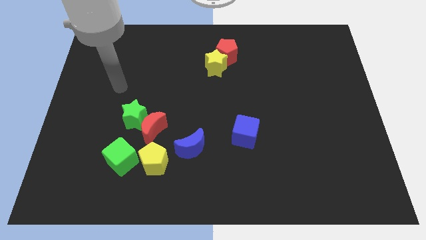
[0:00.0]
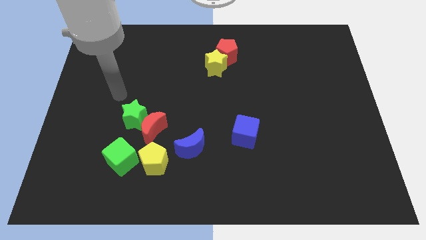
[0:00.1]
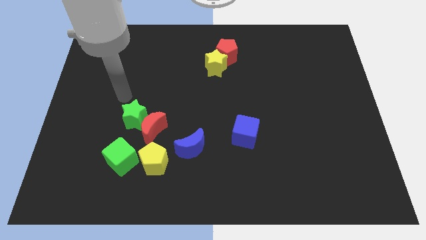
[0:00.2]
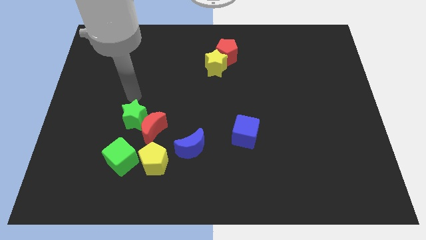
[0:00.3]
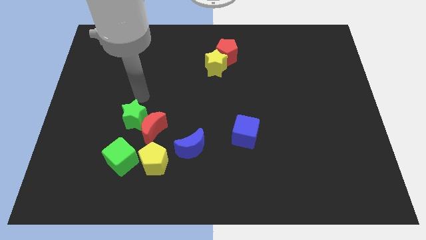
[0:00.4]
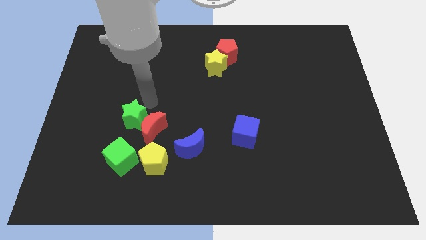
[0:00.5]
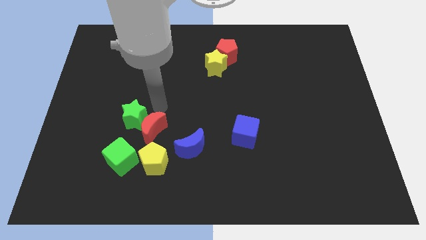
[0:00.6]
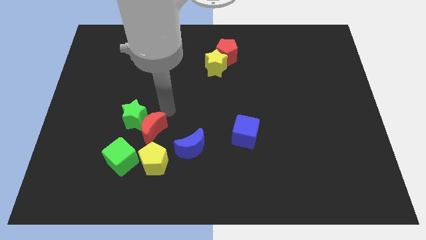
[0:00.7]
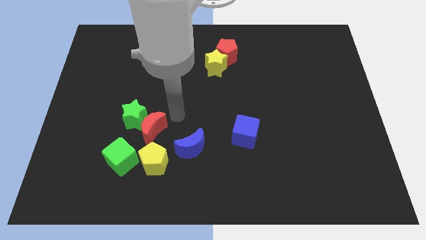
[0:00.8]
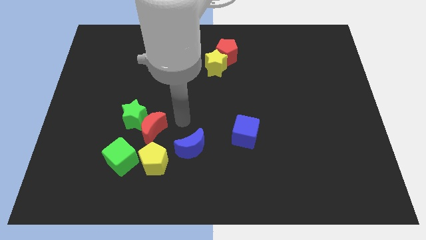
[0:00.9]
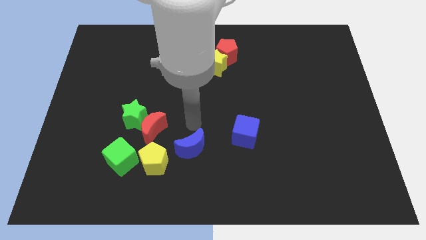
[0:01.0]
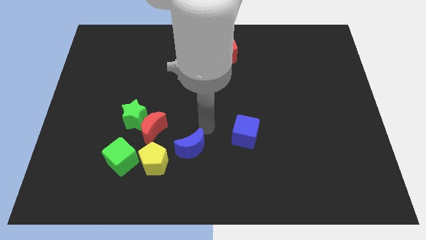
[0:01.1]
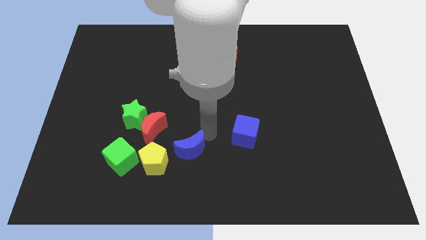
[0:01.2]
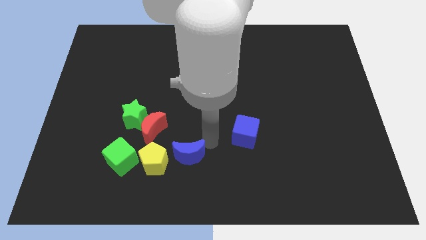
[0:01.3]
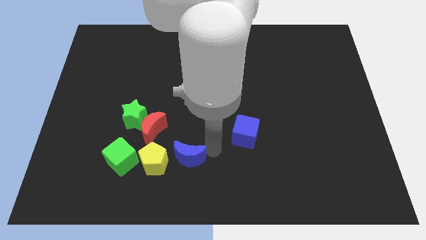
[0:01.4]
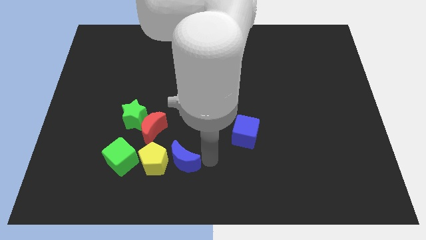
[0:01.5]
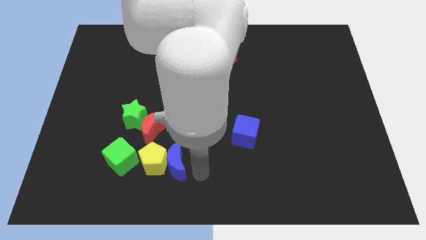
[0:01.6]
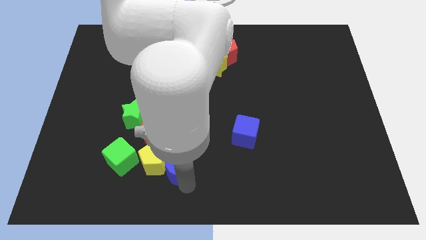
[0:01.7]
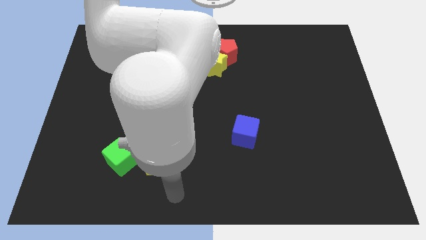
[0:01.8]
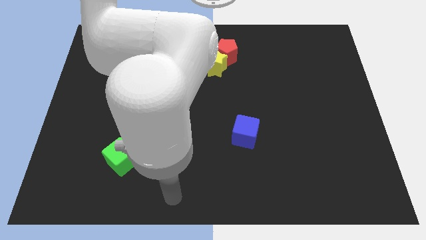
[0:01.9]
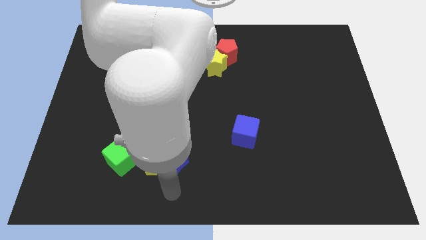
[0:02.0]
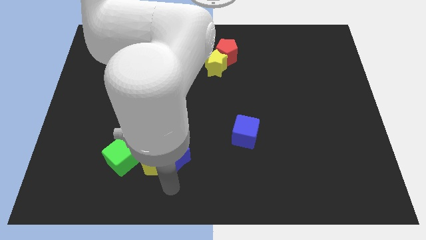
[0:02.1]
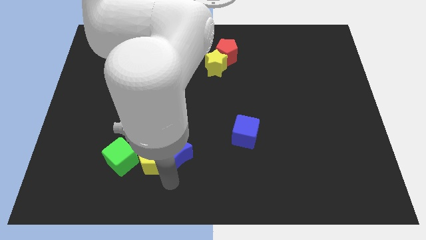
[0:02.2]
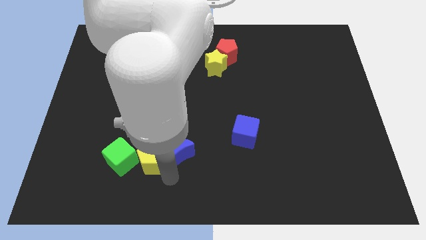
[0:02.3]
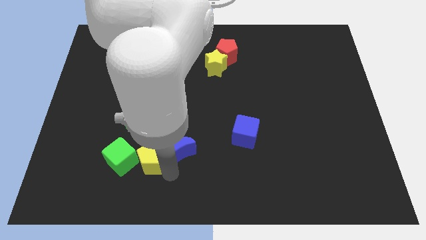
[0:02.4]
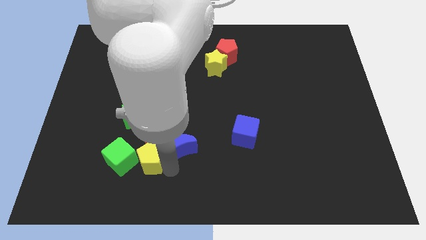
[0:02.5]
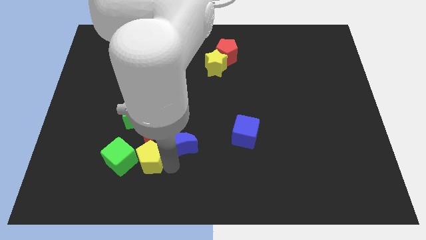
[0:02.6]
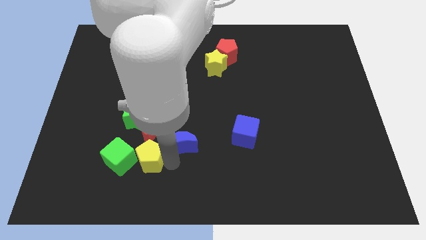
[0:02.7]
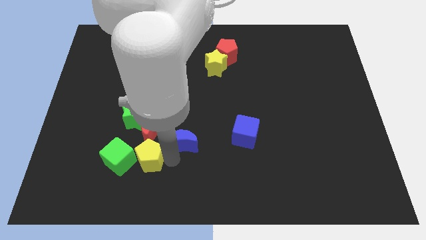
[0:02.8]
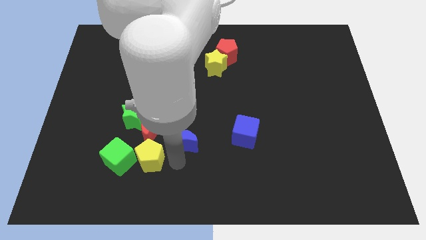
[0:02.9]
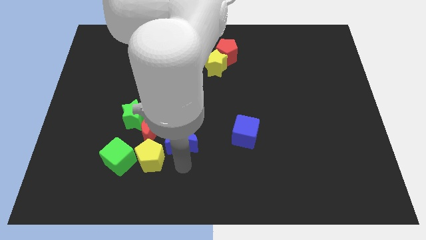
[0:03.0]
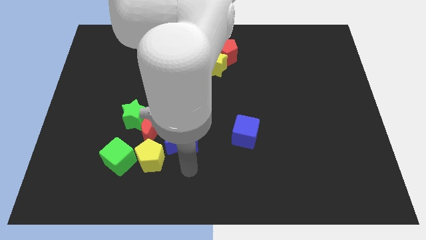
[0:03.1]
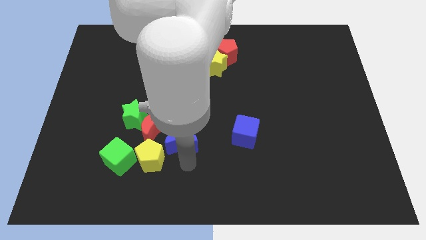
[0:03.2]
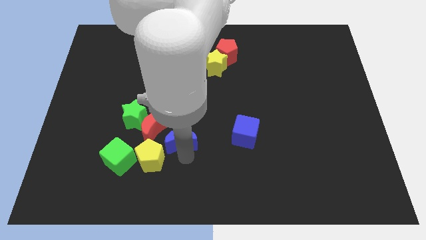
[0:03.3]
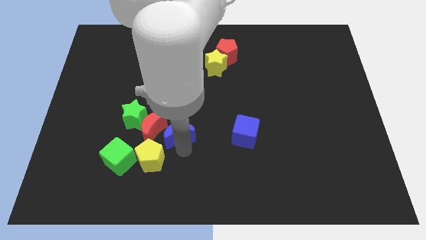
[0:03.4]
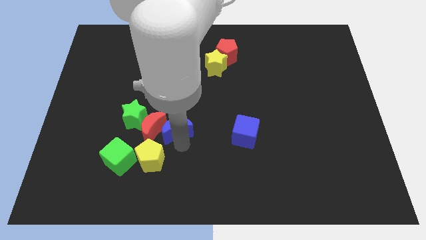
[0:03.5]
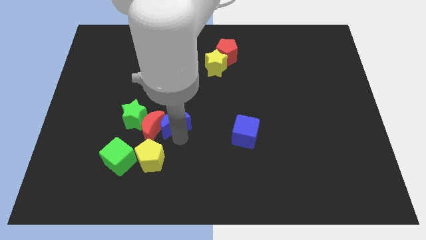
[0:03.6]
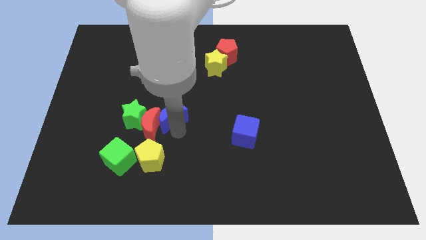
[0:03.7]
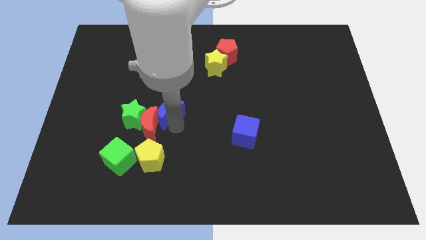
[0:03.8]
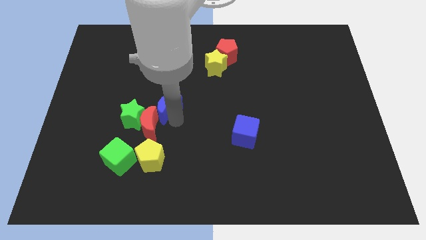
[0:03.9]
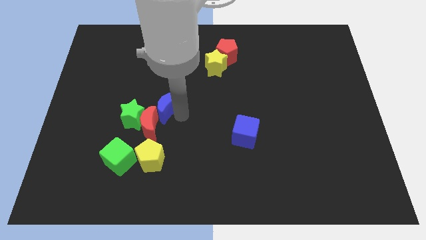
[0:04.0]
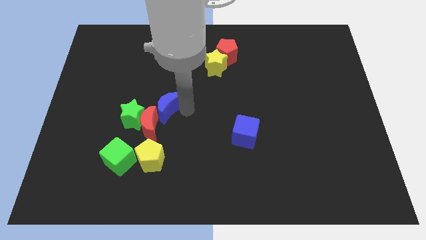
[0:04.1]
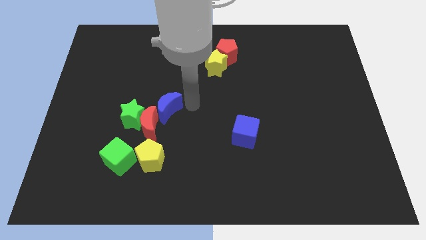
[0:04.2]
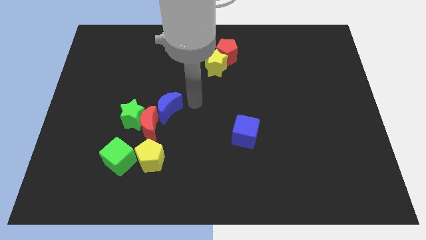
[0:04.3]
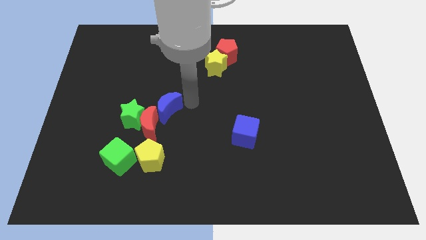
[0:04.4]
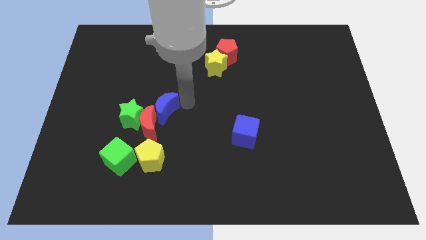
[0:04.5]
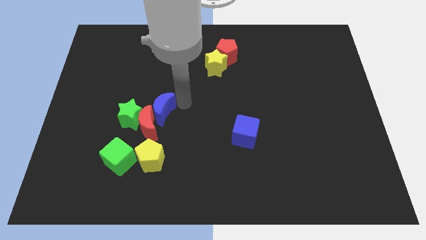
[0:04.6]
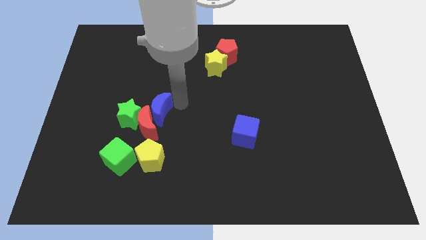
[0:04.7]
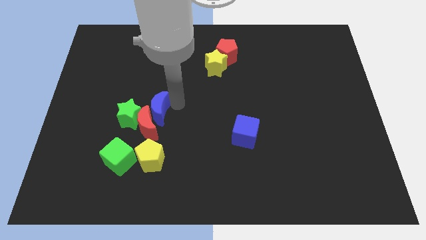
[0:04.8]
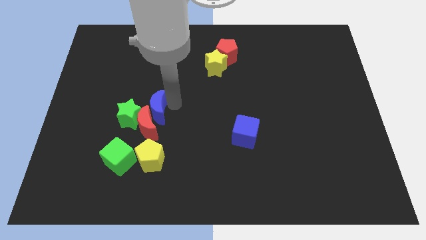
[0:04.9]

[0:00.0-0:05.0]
slide the blue moon to the green star

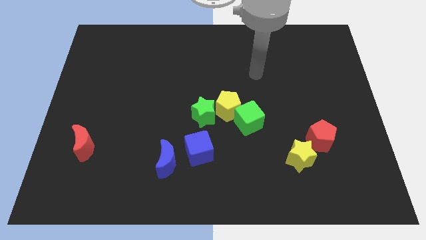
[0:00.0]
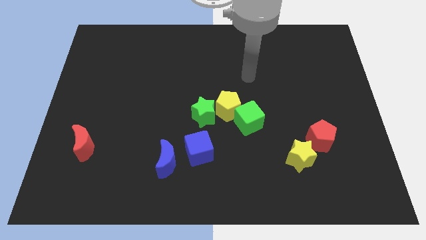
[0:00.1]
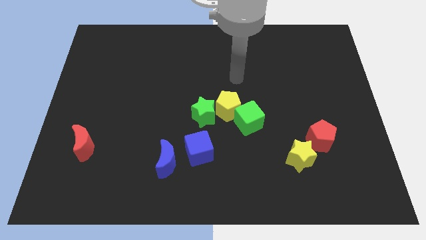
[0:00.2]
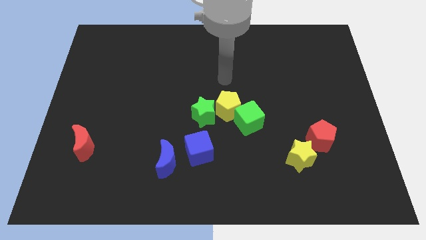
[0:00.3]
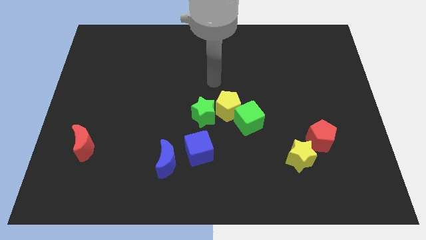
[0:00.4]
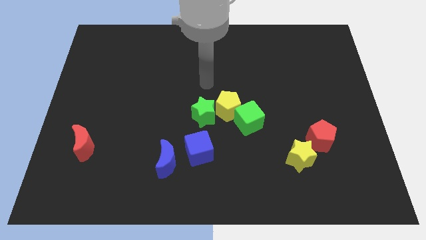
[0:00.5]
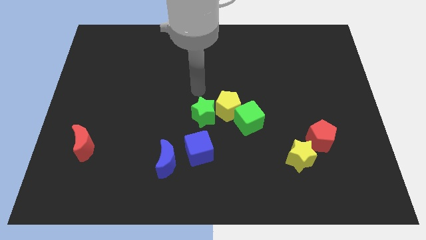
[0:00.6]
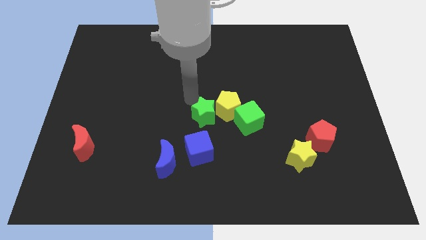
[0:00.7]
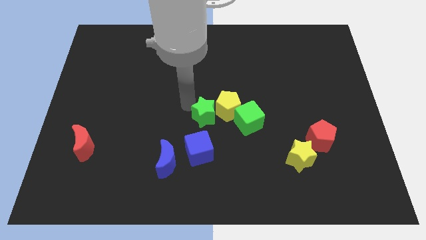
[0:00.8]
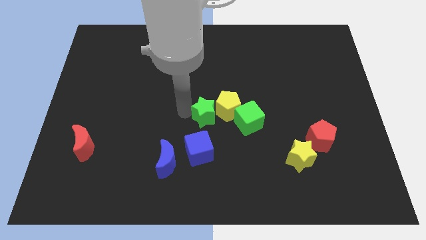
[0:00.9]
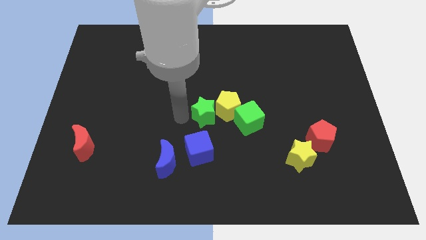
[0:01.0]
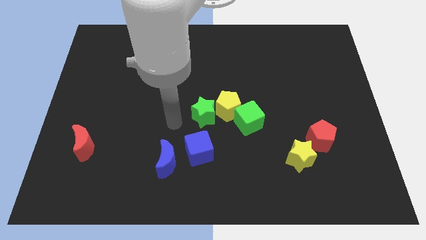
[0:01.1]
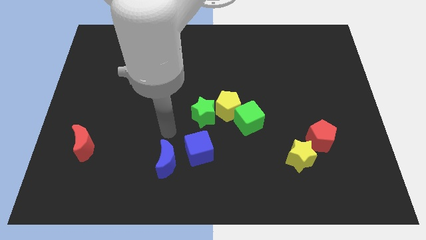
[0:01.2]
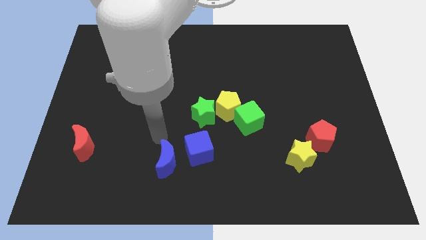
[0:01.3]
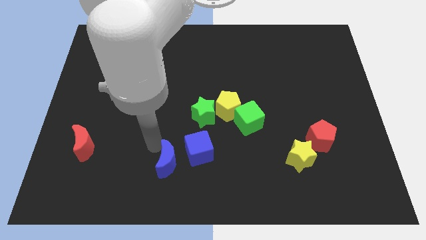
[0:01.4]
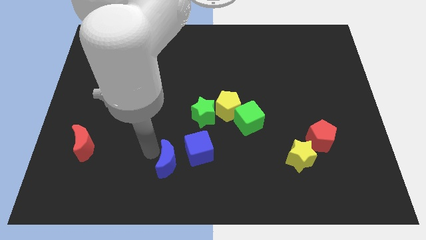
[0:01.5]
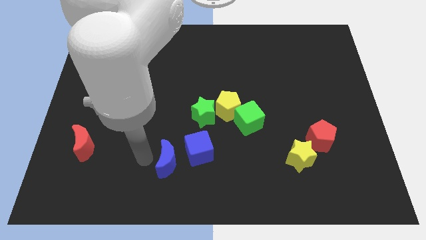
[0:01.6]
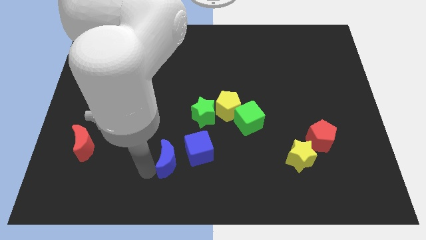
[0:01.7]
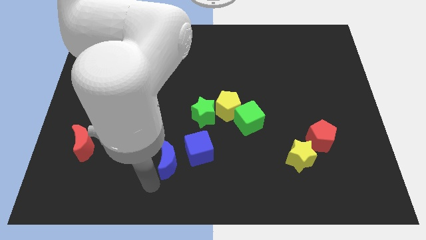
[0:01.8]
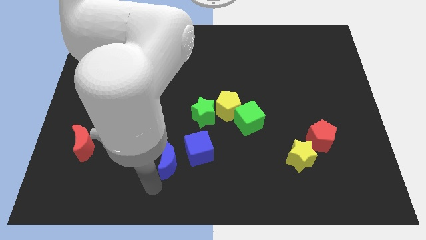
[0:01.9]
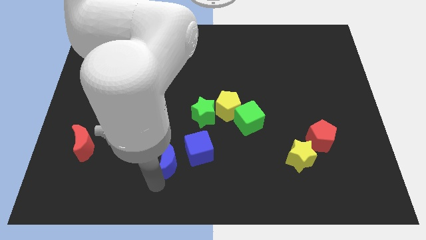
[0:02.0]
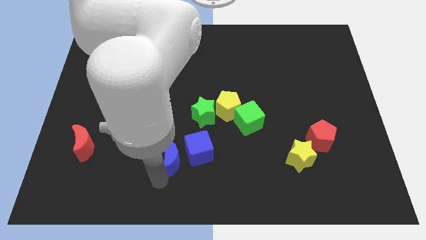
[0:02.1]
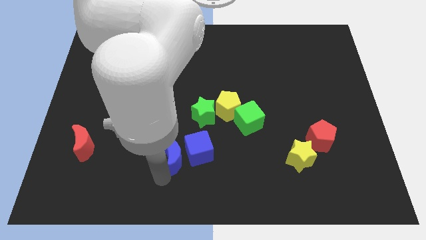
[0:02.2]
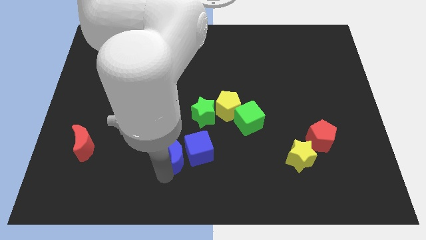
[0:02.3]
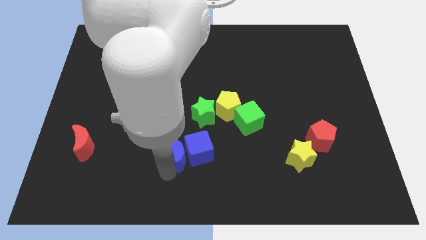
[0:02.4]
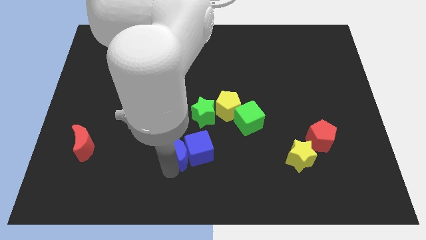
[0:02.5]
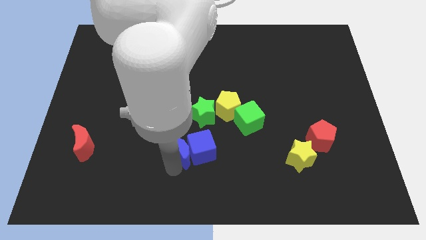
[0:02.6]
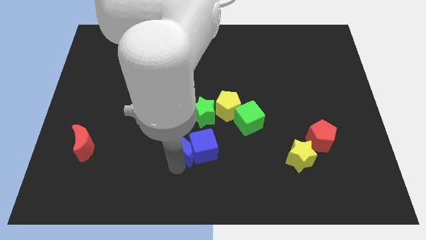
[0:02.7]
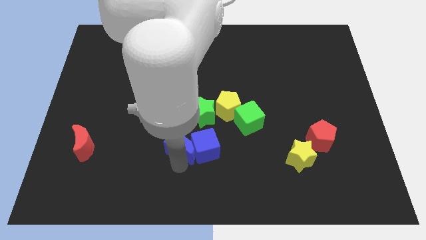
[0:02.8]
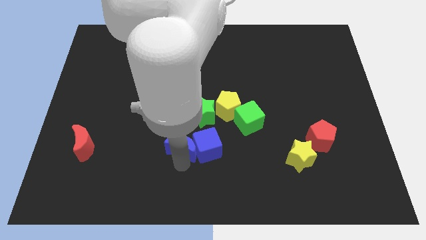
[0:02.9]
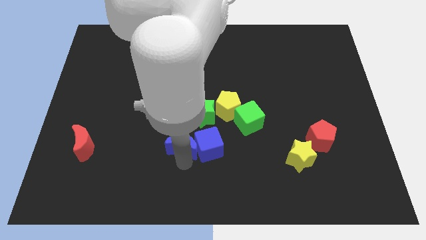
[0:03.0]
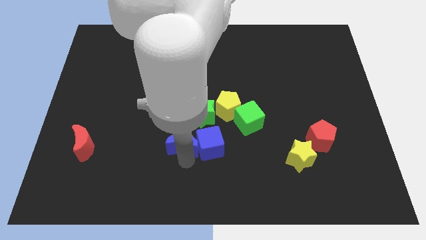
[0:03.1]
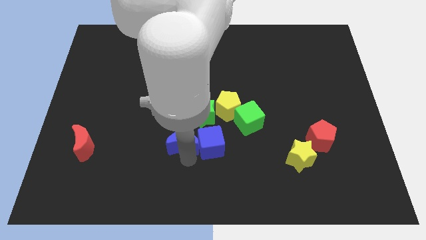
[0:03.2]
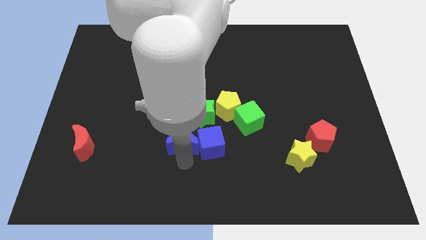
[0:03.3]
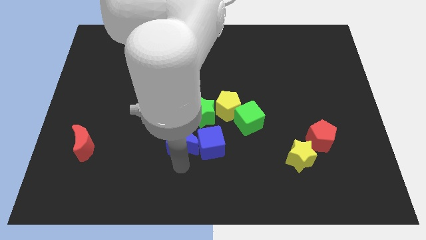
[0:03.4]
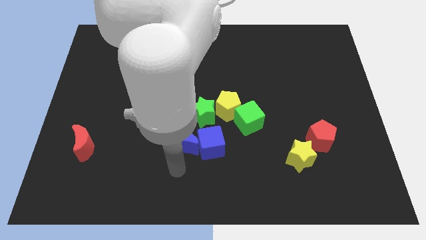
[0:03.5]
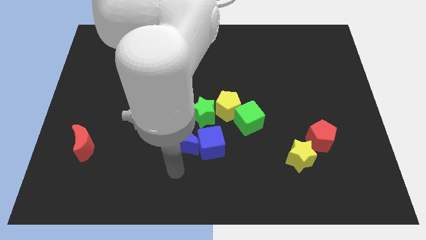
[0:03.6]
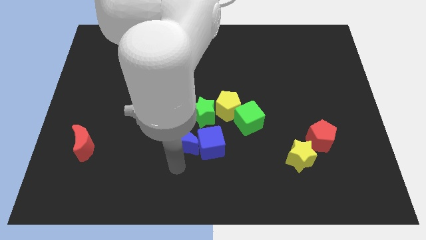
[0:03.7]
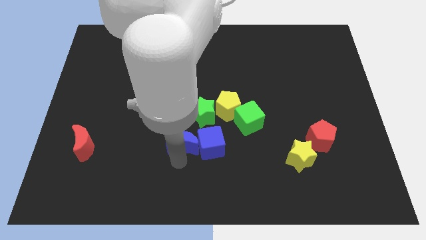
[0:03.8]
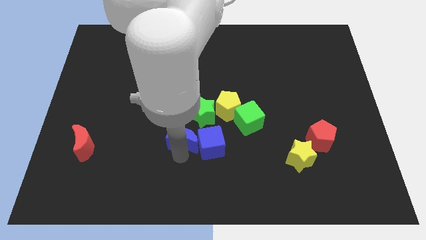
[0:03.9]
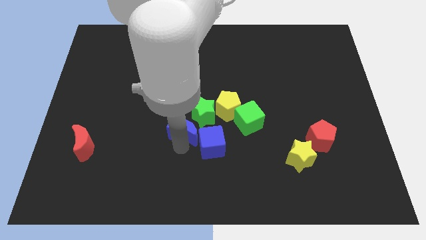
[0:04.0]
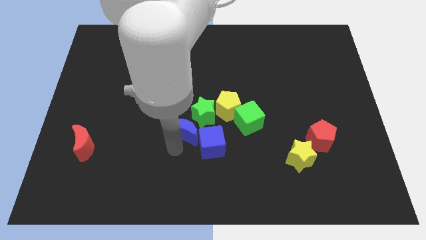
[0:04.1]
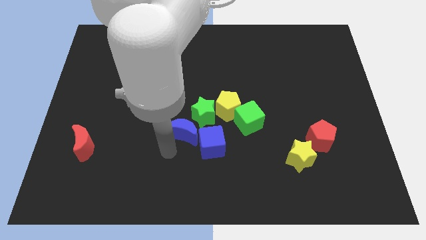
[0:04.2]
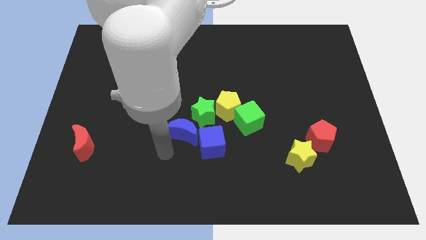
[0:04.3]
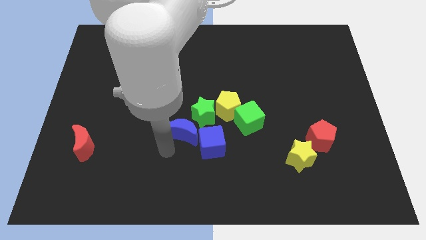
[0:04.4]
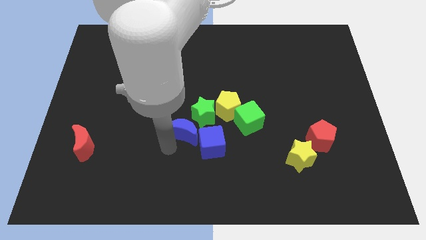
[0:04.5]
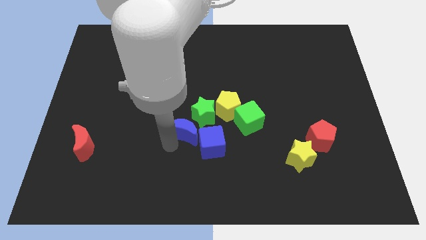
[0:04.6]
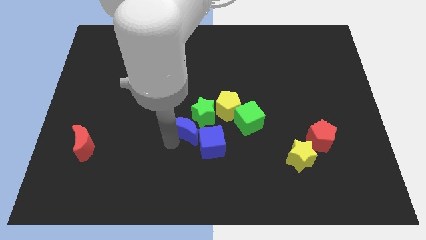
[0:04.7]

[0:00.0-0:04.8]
move the blue moon close to the green star
